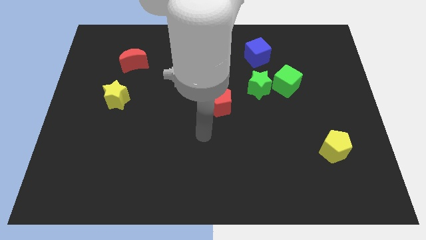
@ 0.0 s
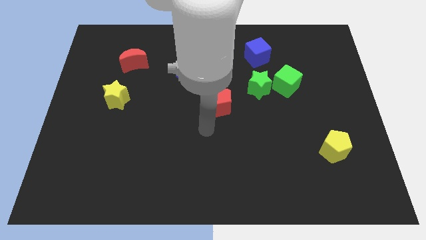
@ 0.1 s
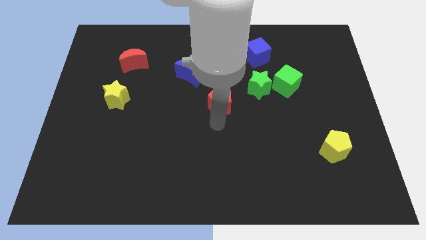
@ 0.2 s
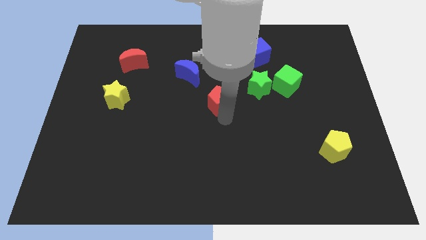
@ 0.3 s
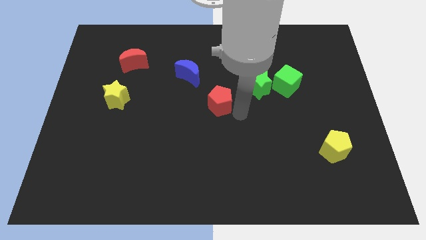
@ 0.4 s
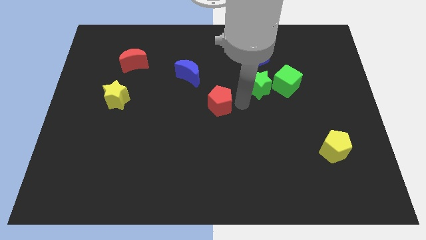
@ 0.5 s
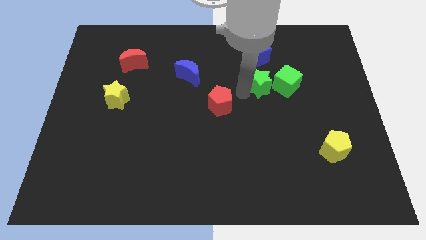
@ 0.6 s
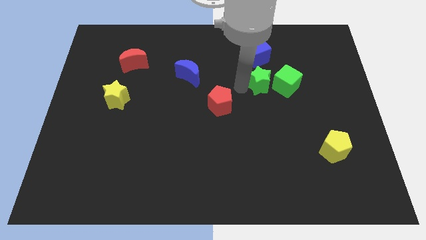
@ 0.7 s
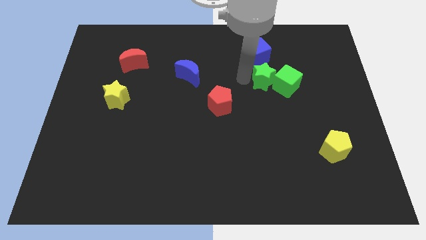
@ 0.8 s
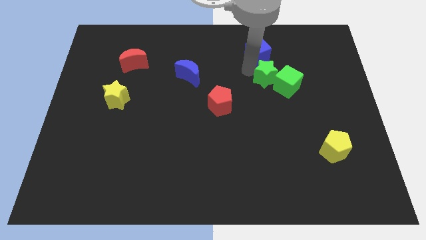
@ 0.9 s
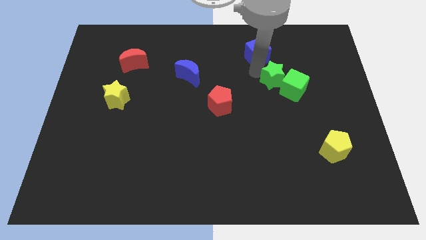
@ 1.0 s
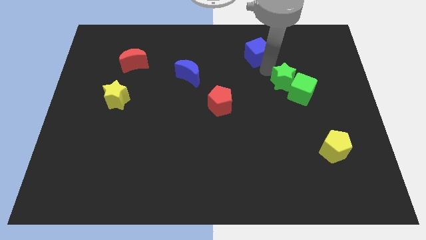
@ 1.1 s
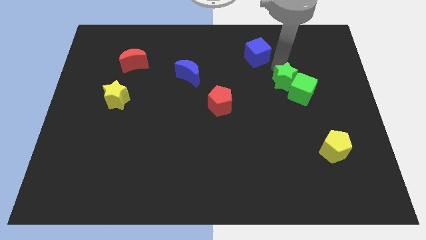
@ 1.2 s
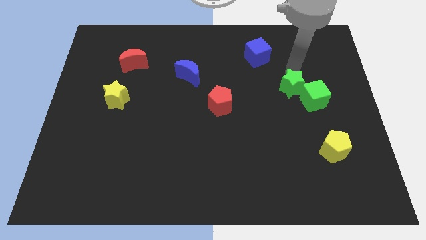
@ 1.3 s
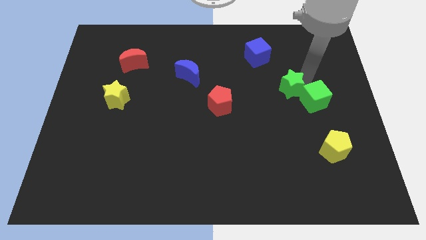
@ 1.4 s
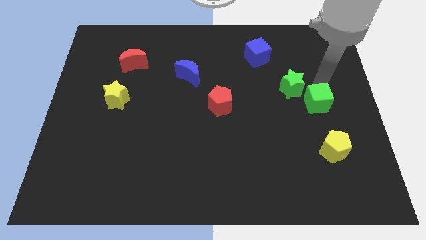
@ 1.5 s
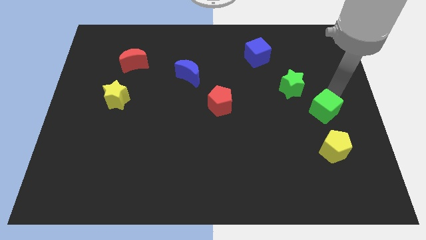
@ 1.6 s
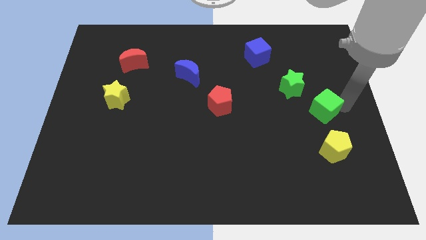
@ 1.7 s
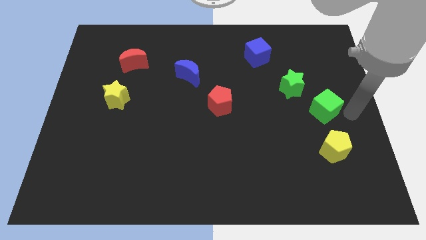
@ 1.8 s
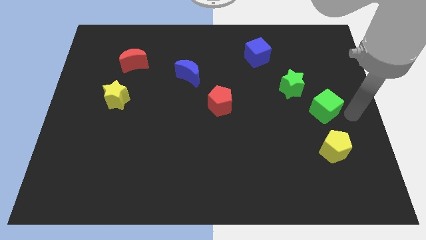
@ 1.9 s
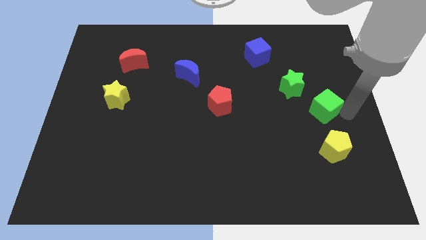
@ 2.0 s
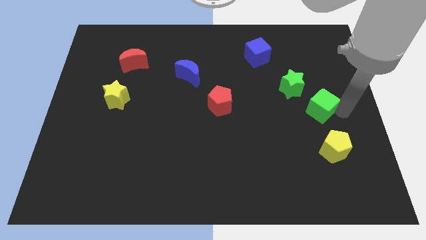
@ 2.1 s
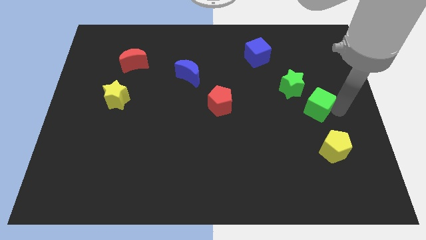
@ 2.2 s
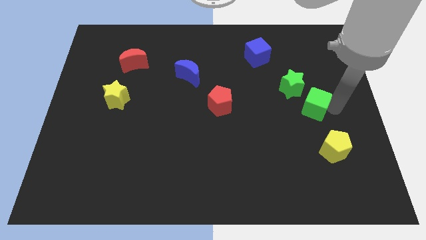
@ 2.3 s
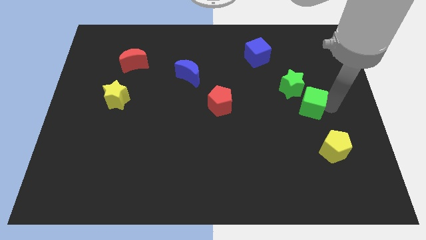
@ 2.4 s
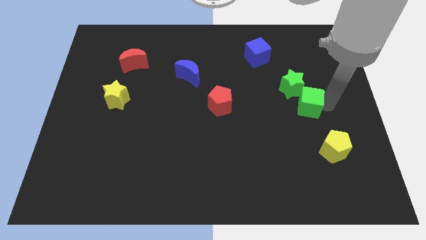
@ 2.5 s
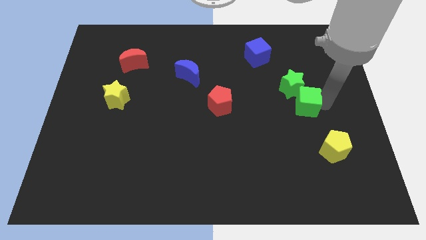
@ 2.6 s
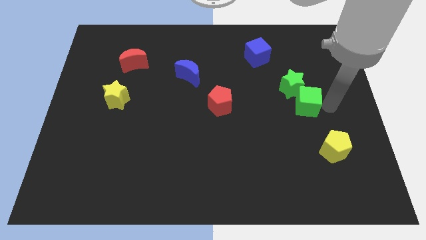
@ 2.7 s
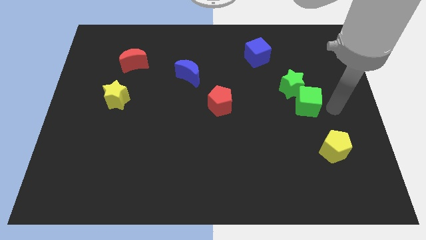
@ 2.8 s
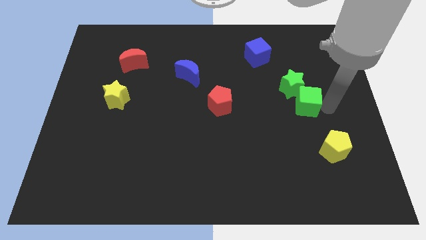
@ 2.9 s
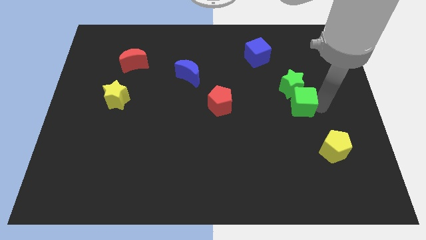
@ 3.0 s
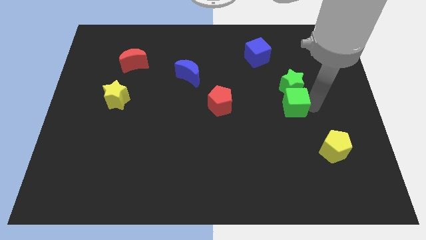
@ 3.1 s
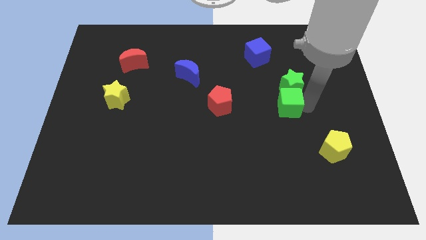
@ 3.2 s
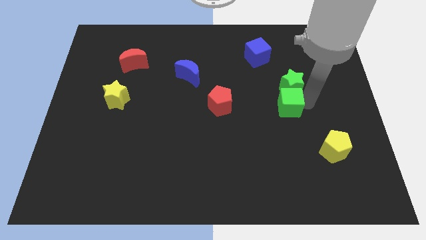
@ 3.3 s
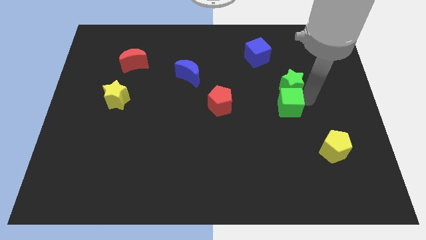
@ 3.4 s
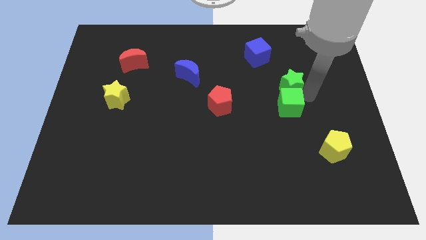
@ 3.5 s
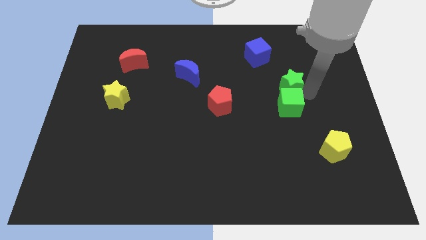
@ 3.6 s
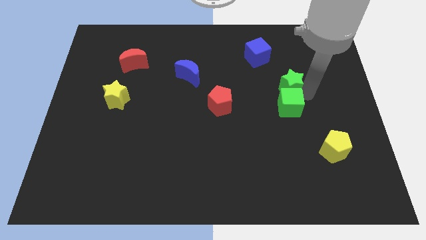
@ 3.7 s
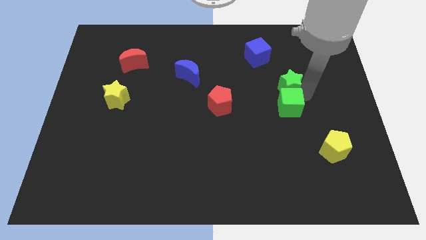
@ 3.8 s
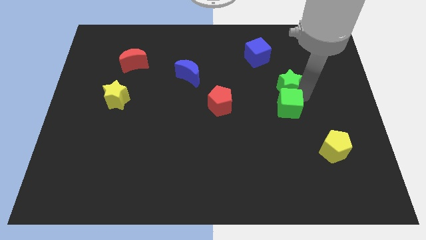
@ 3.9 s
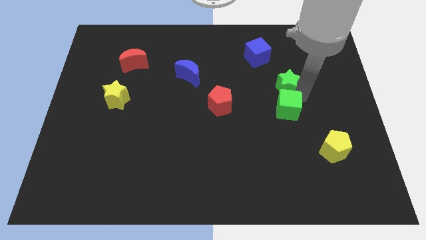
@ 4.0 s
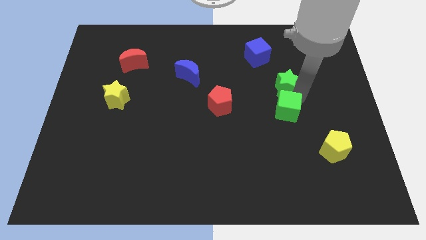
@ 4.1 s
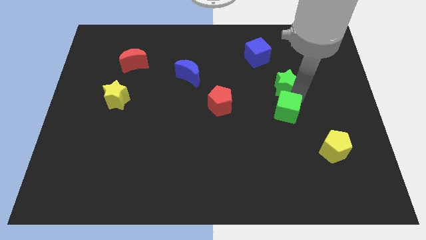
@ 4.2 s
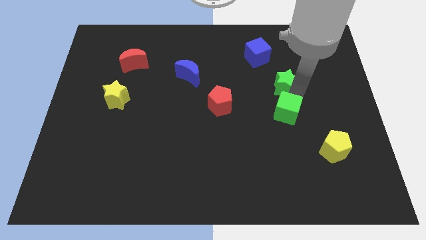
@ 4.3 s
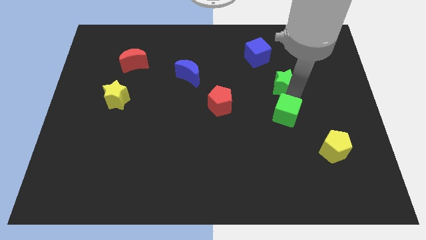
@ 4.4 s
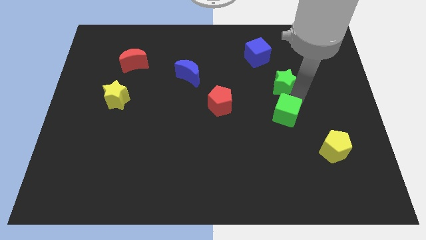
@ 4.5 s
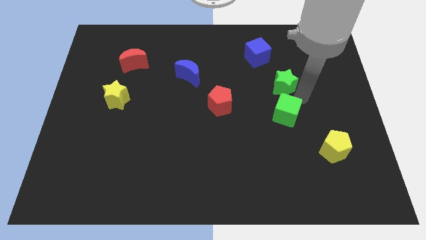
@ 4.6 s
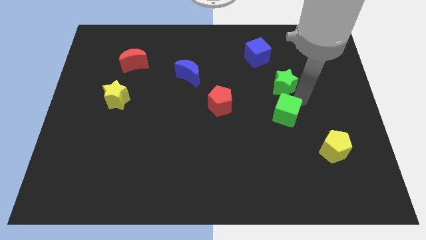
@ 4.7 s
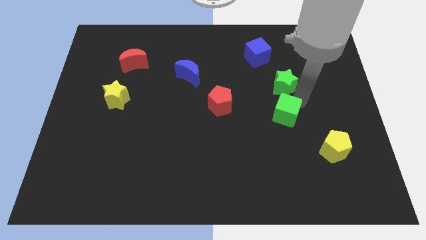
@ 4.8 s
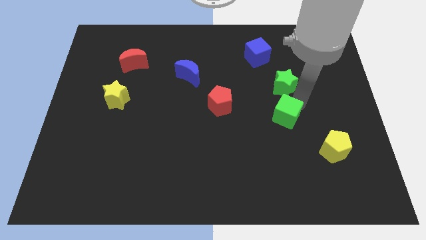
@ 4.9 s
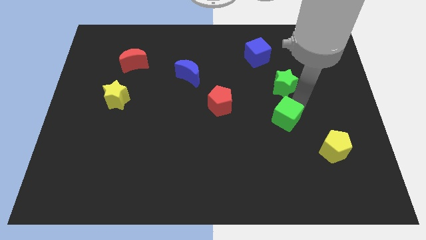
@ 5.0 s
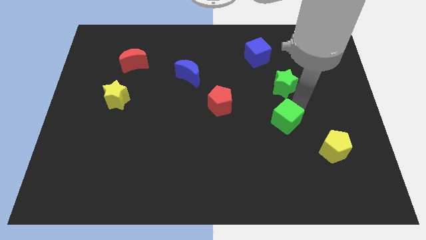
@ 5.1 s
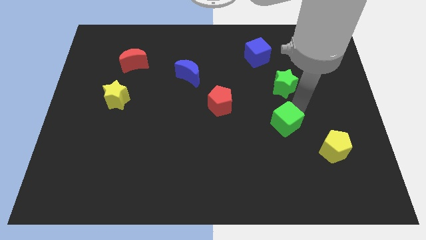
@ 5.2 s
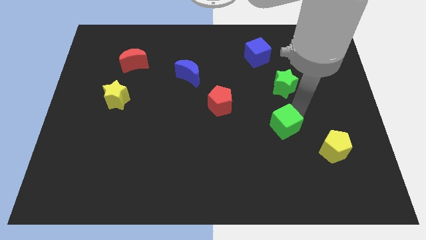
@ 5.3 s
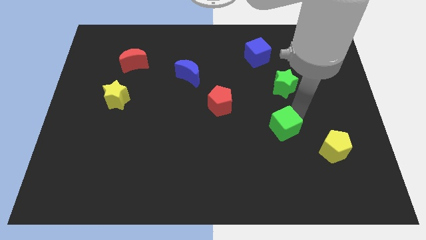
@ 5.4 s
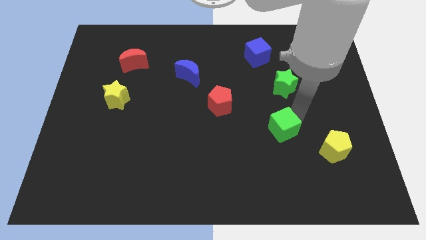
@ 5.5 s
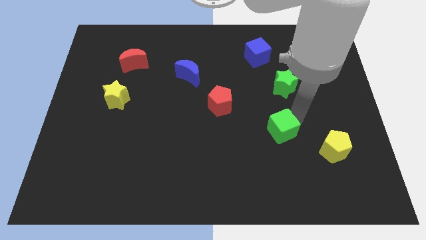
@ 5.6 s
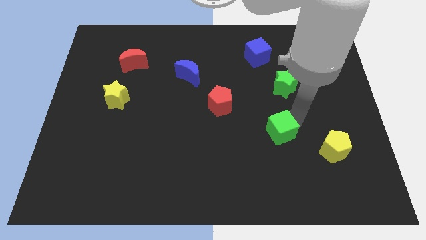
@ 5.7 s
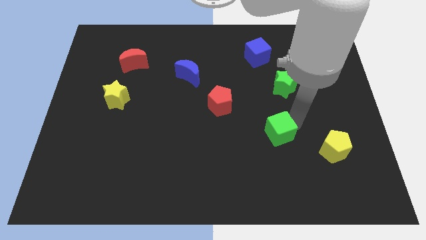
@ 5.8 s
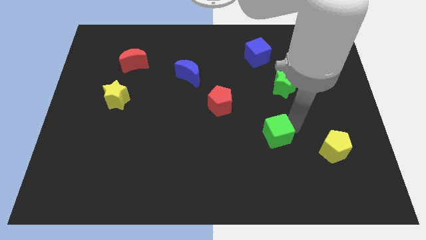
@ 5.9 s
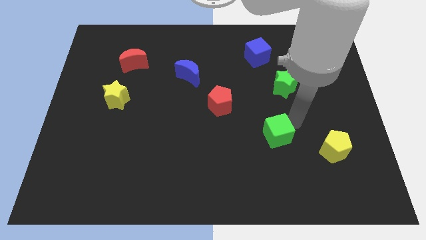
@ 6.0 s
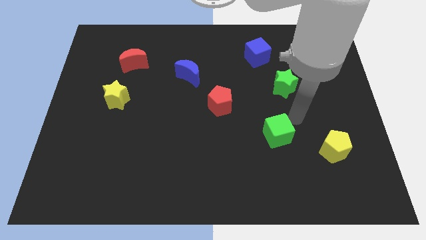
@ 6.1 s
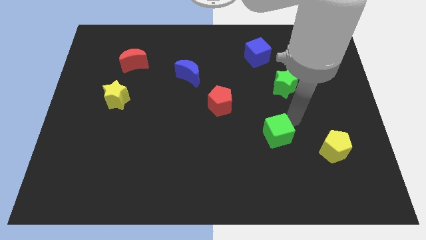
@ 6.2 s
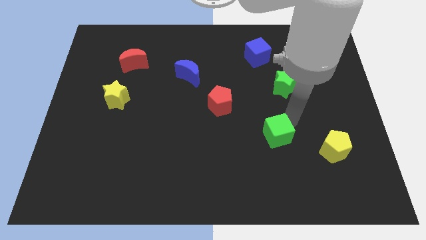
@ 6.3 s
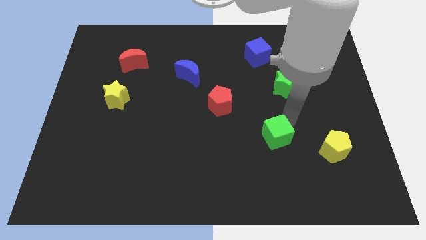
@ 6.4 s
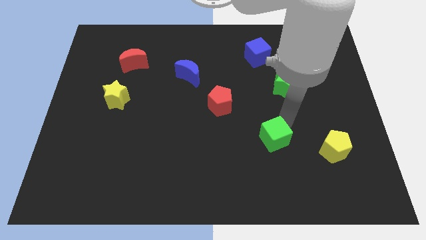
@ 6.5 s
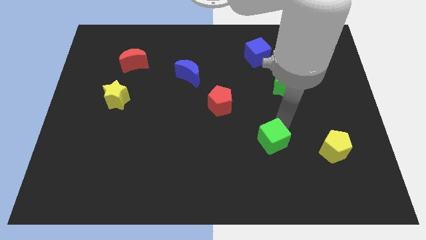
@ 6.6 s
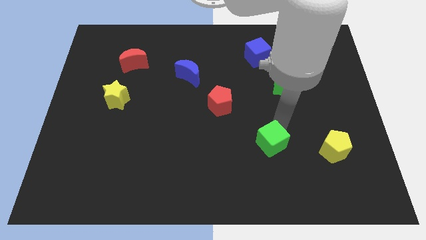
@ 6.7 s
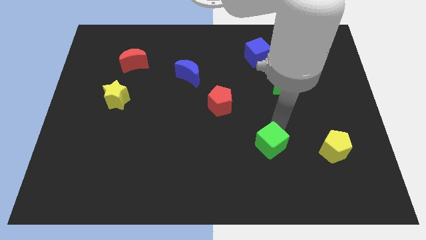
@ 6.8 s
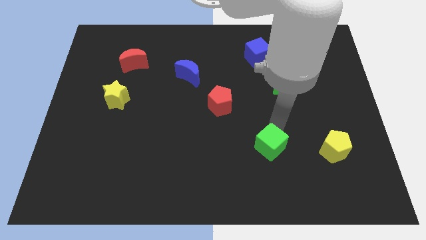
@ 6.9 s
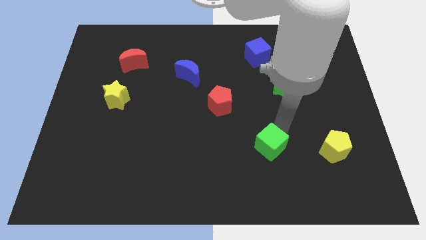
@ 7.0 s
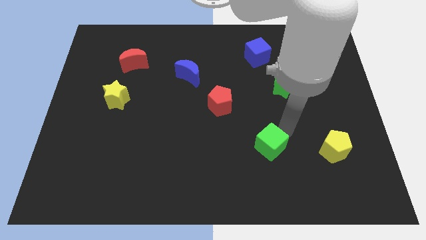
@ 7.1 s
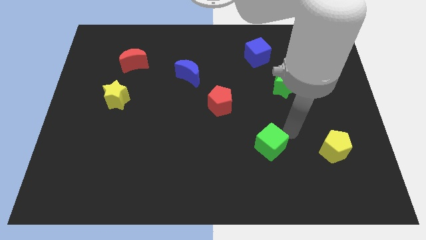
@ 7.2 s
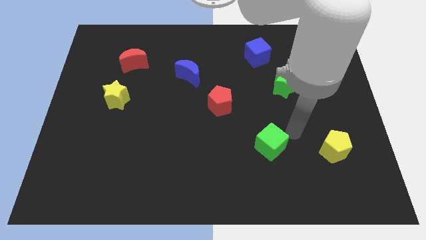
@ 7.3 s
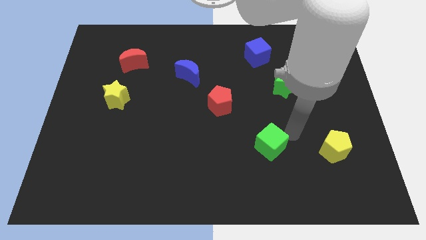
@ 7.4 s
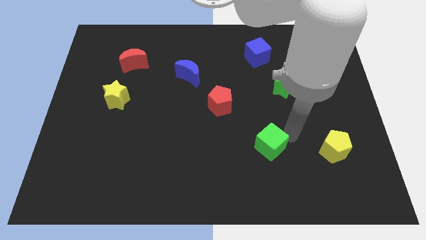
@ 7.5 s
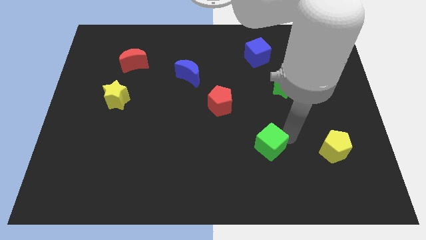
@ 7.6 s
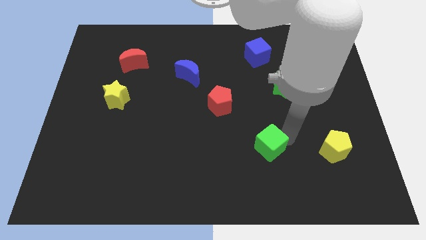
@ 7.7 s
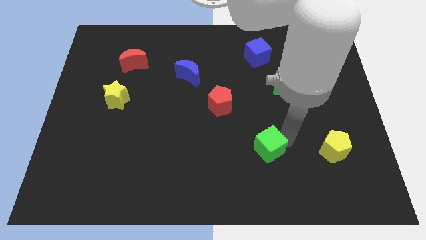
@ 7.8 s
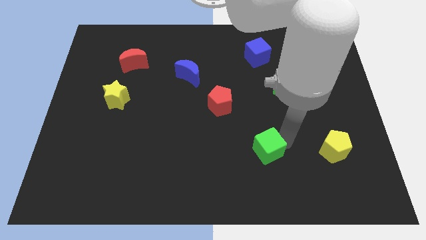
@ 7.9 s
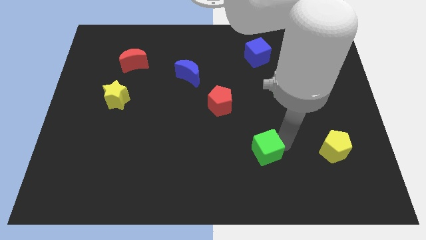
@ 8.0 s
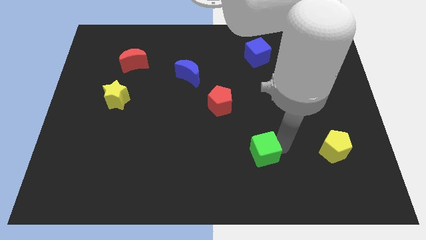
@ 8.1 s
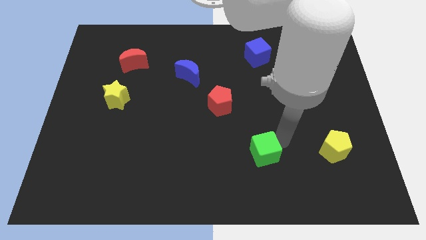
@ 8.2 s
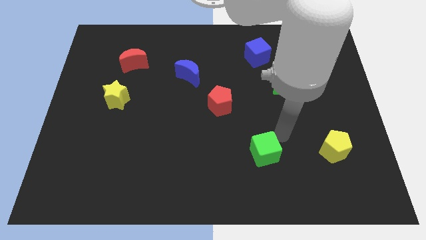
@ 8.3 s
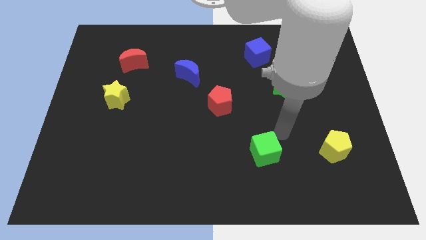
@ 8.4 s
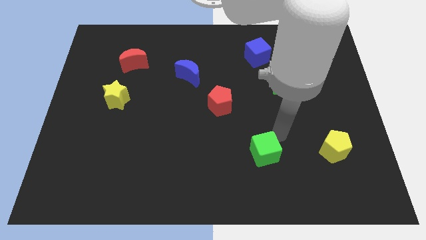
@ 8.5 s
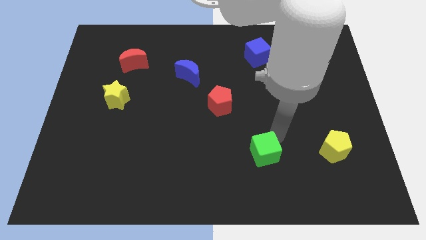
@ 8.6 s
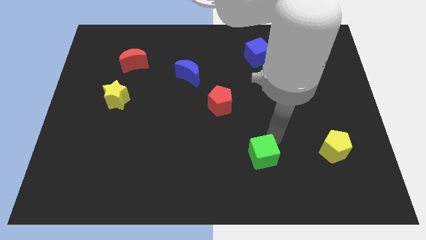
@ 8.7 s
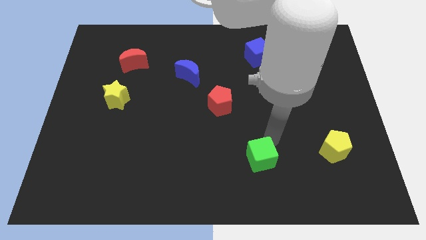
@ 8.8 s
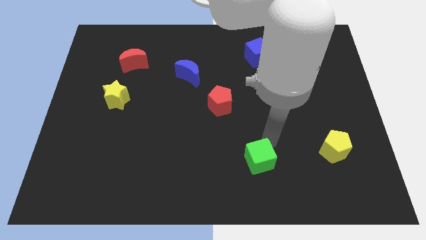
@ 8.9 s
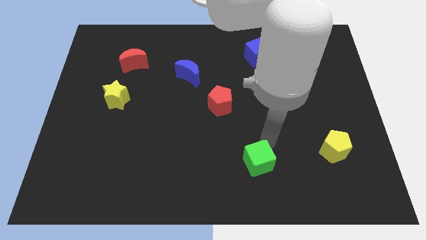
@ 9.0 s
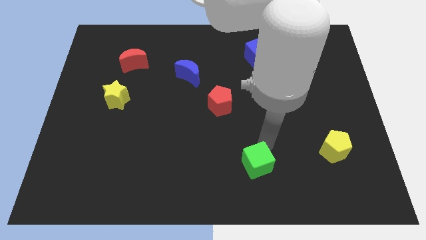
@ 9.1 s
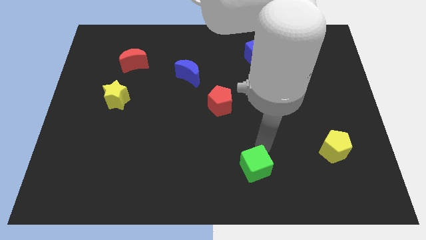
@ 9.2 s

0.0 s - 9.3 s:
put the green cube to the bottom side
